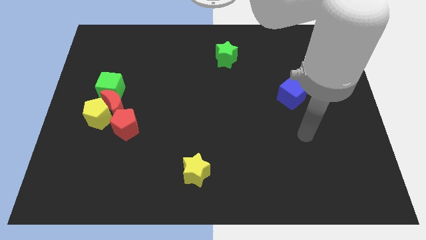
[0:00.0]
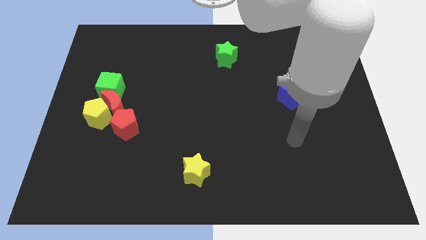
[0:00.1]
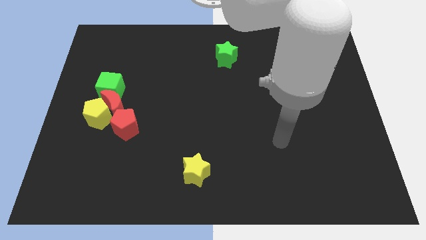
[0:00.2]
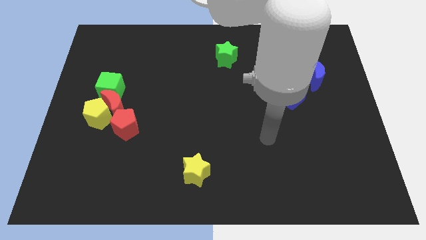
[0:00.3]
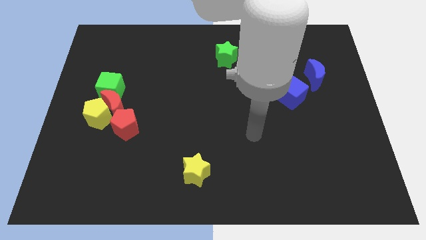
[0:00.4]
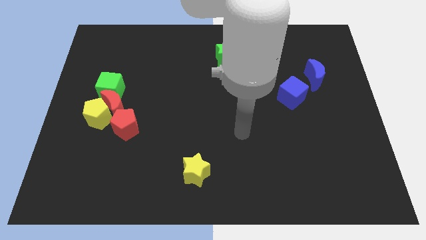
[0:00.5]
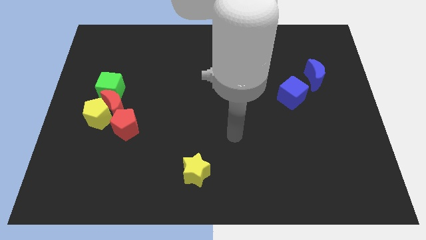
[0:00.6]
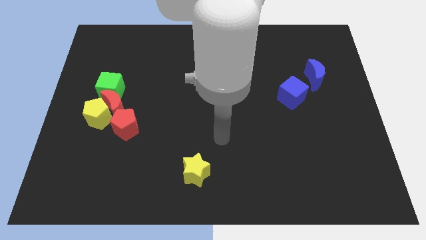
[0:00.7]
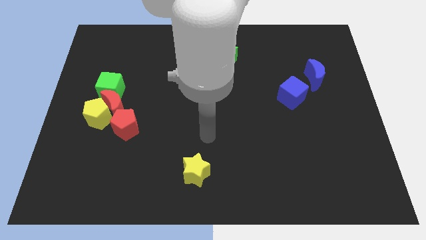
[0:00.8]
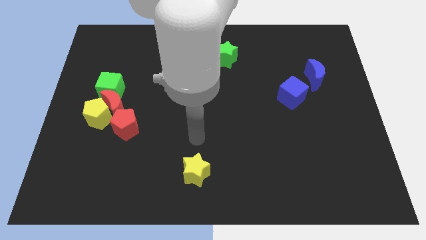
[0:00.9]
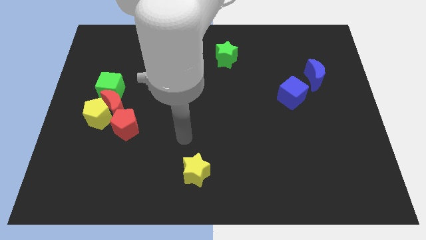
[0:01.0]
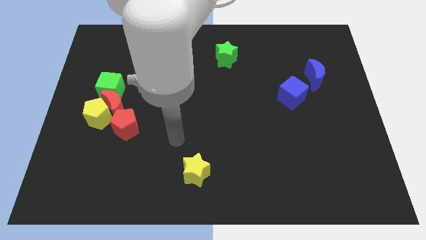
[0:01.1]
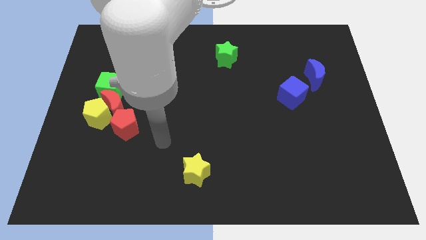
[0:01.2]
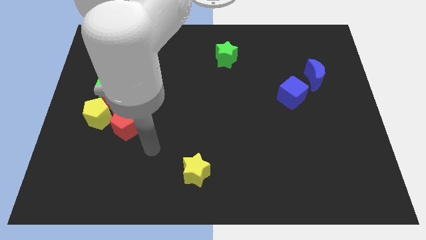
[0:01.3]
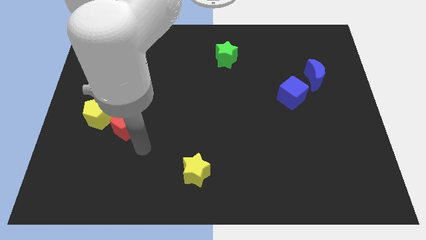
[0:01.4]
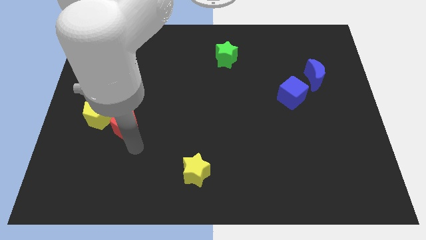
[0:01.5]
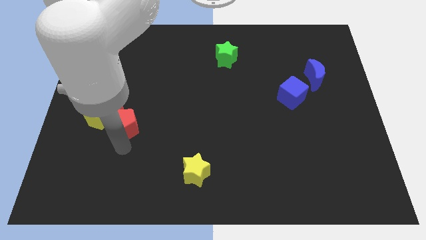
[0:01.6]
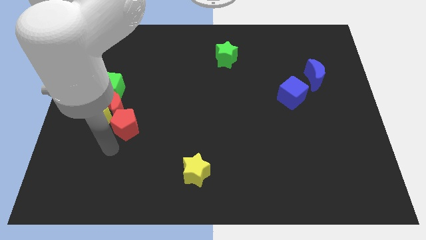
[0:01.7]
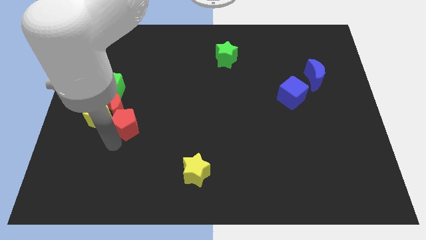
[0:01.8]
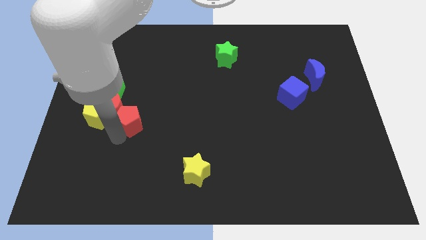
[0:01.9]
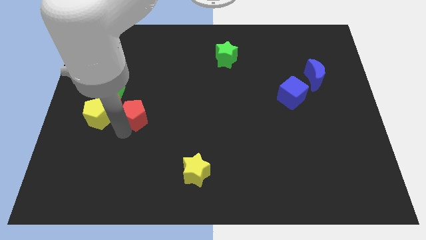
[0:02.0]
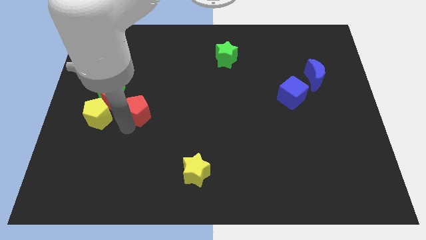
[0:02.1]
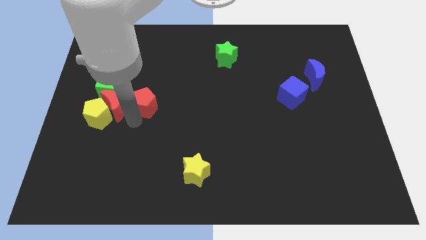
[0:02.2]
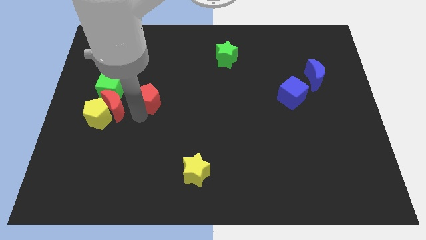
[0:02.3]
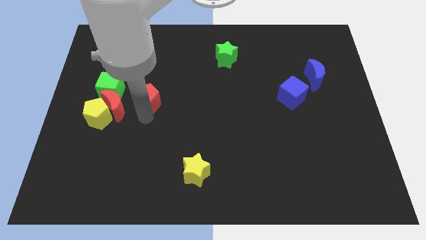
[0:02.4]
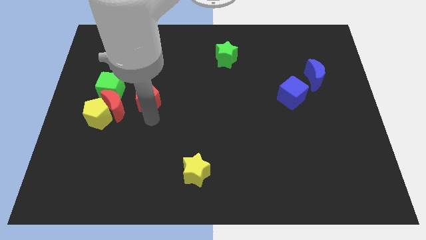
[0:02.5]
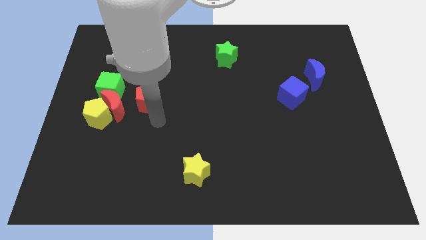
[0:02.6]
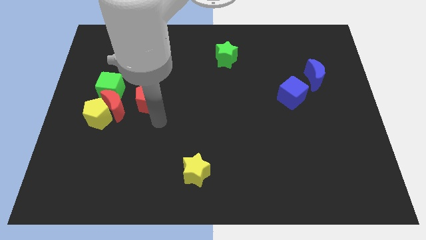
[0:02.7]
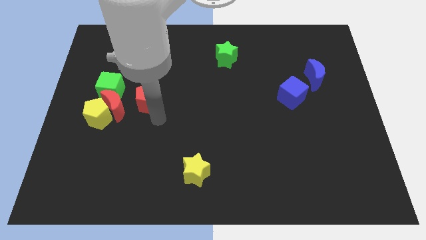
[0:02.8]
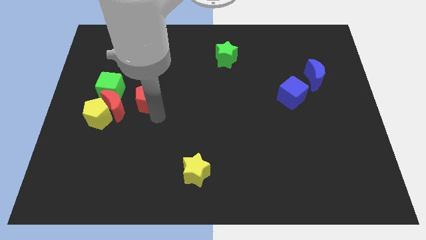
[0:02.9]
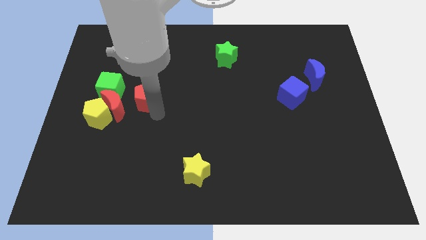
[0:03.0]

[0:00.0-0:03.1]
move the red pentagon upwards a little

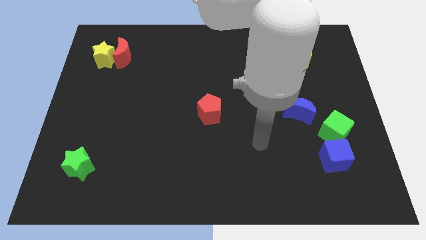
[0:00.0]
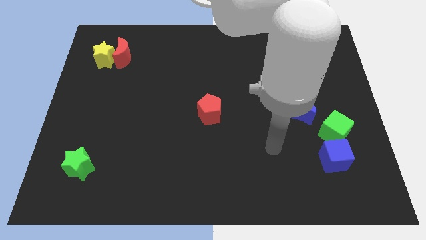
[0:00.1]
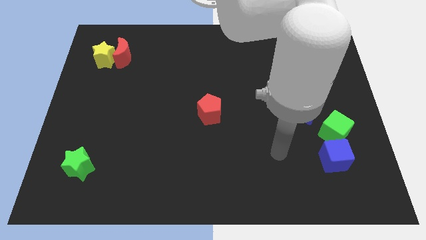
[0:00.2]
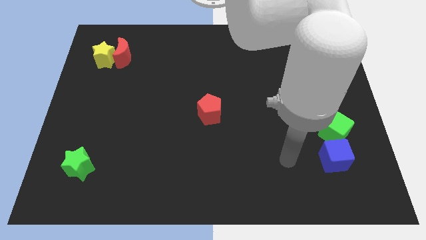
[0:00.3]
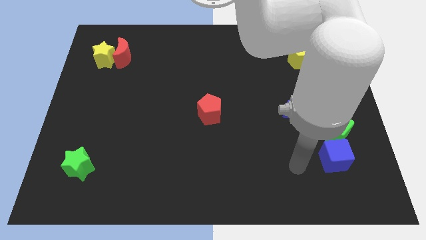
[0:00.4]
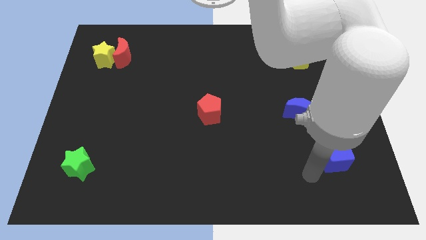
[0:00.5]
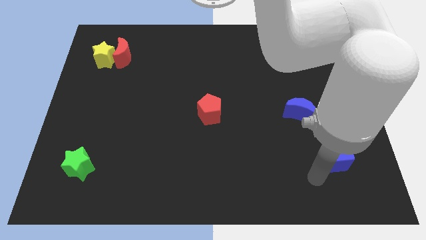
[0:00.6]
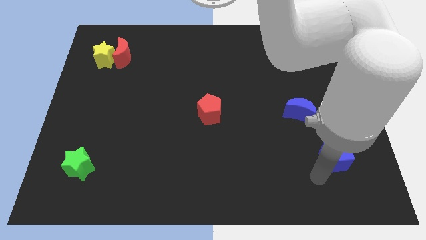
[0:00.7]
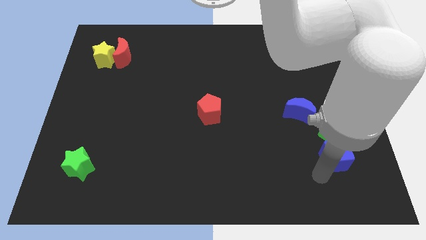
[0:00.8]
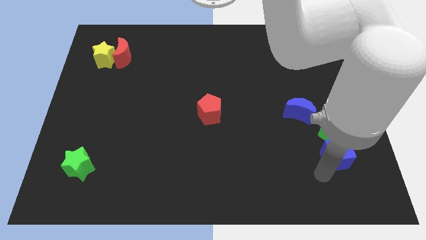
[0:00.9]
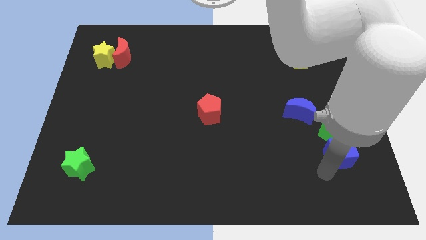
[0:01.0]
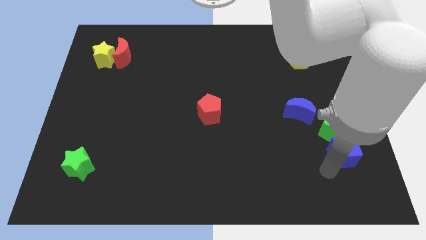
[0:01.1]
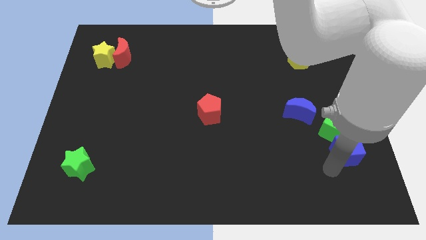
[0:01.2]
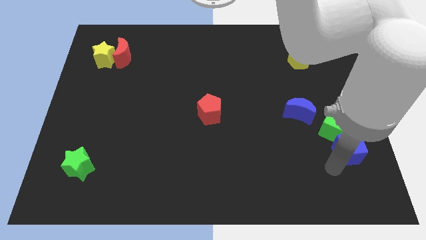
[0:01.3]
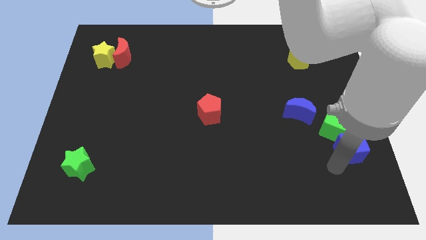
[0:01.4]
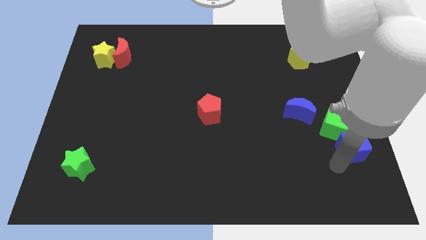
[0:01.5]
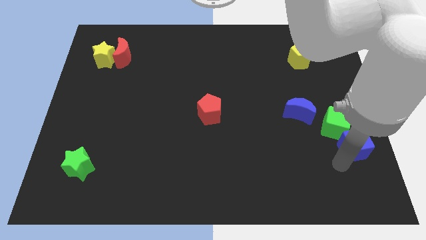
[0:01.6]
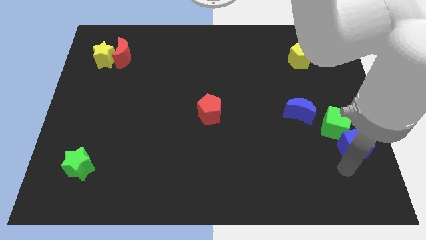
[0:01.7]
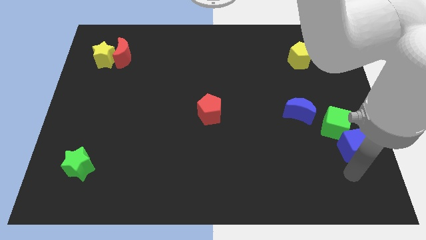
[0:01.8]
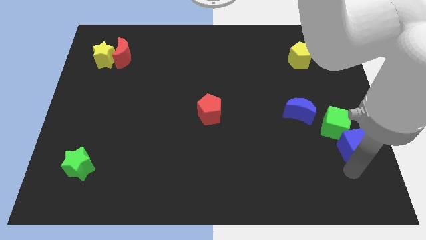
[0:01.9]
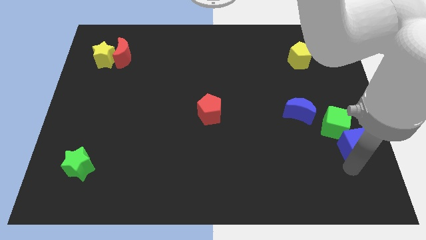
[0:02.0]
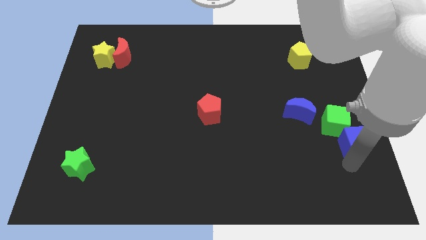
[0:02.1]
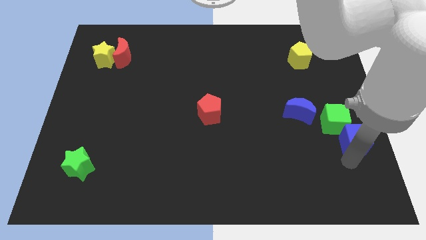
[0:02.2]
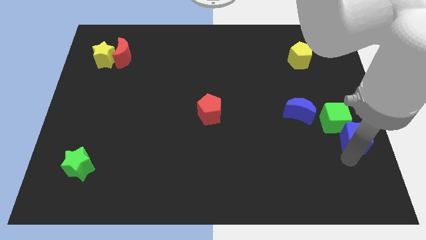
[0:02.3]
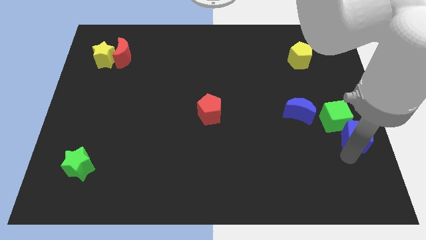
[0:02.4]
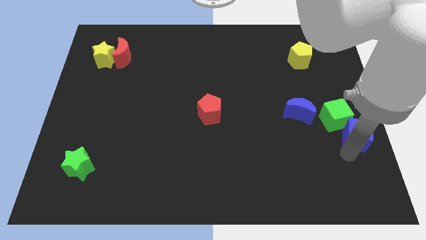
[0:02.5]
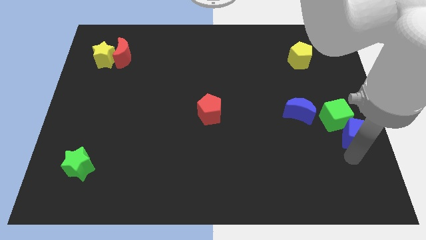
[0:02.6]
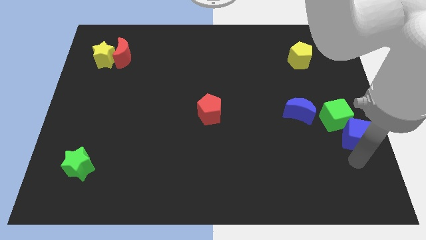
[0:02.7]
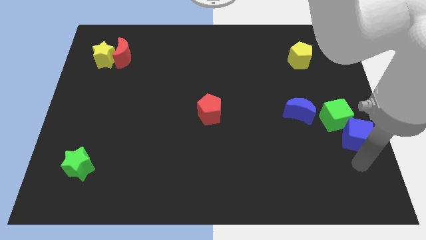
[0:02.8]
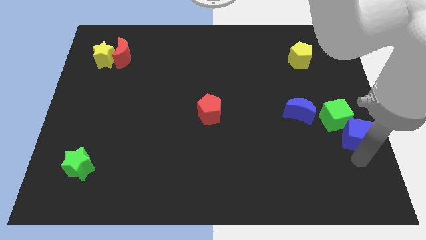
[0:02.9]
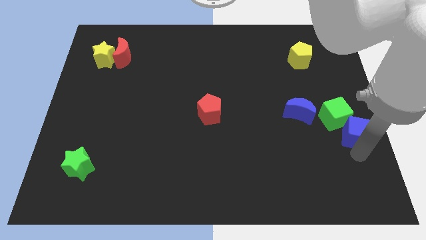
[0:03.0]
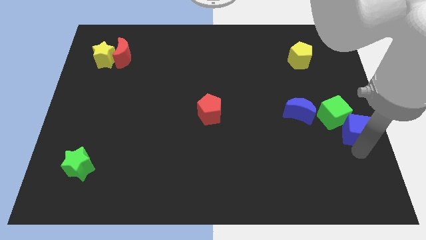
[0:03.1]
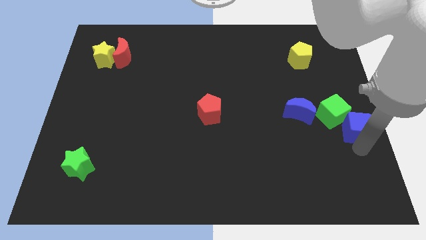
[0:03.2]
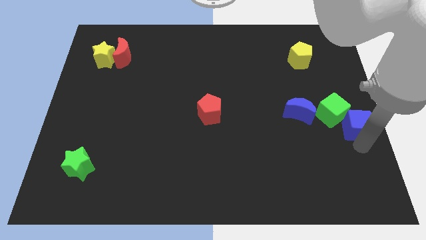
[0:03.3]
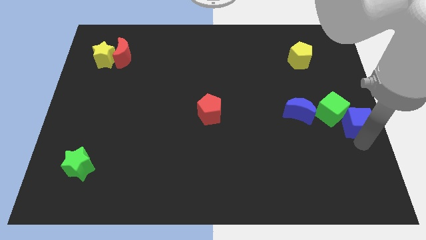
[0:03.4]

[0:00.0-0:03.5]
push the blue cube up a bit

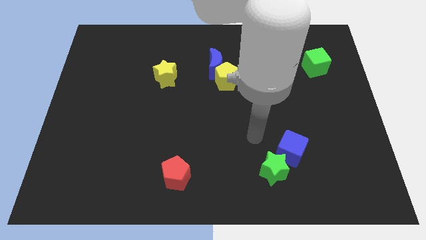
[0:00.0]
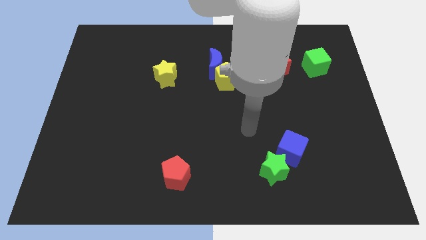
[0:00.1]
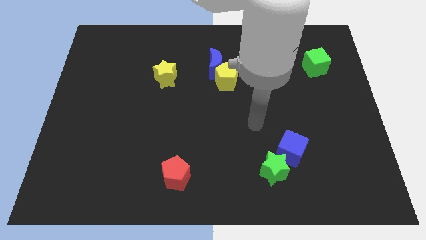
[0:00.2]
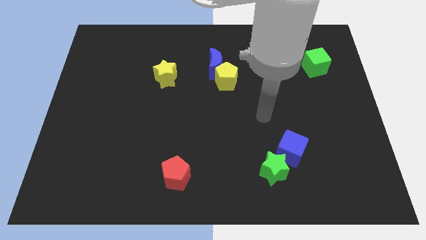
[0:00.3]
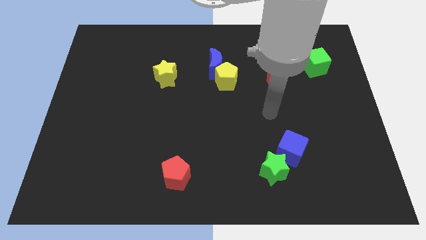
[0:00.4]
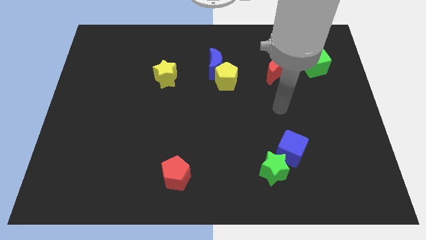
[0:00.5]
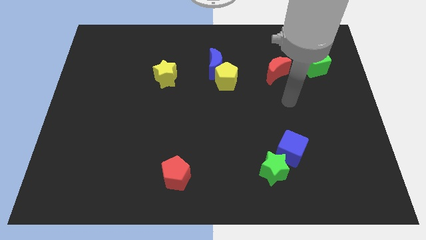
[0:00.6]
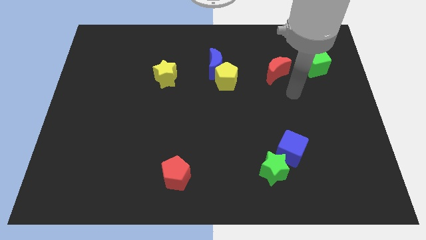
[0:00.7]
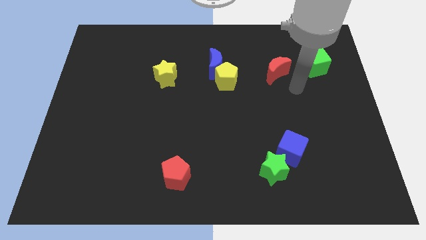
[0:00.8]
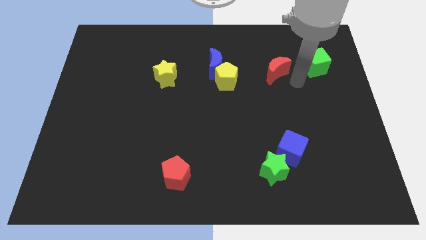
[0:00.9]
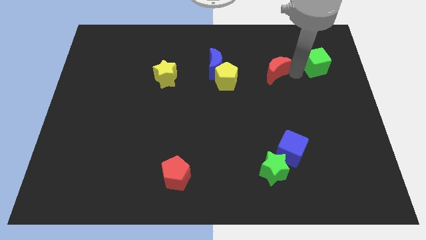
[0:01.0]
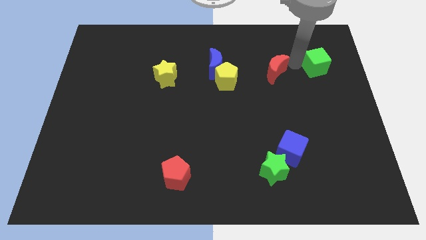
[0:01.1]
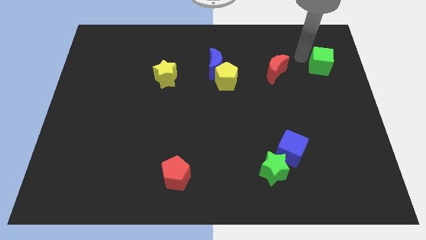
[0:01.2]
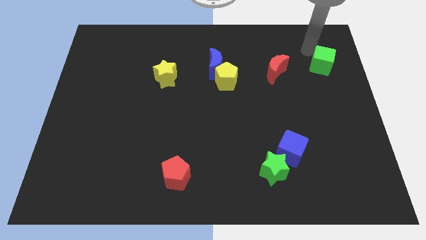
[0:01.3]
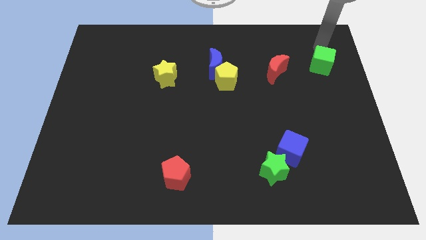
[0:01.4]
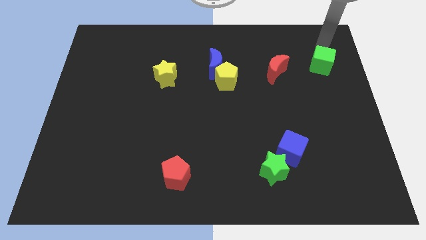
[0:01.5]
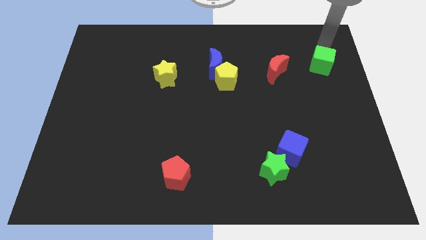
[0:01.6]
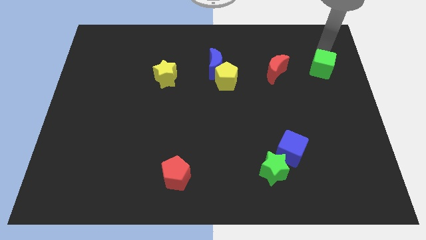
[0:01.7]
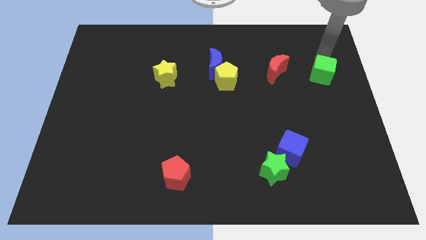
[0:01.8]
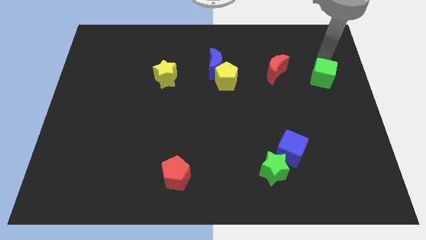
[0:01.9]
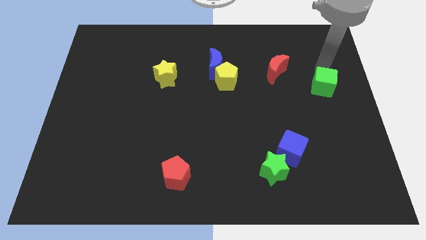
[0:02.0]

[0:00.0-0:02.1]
move the green cube down slightly
